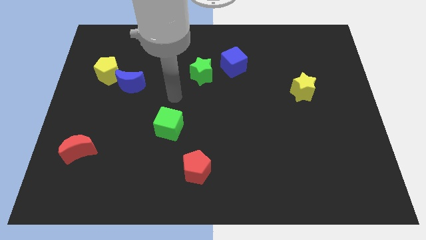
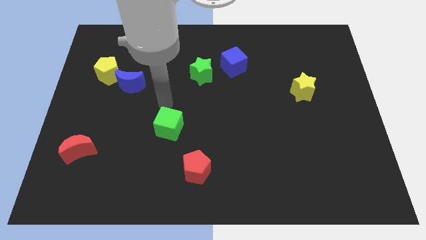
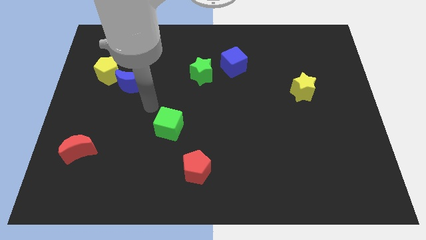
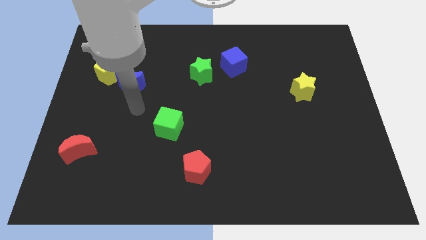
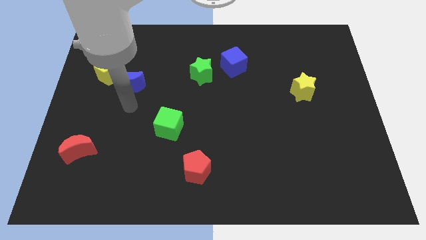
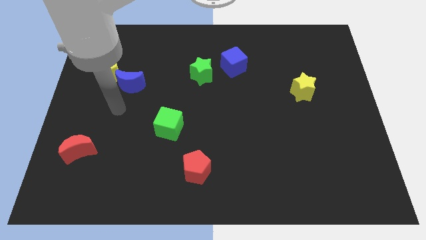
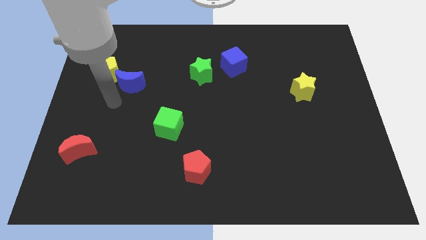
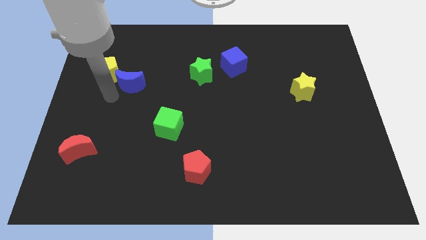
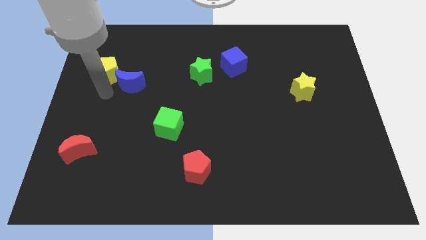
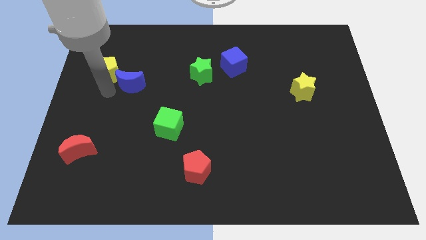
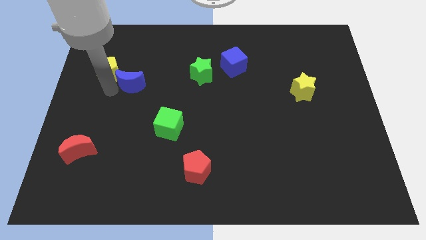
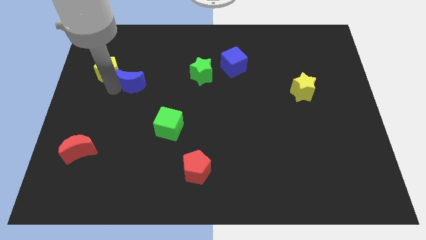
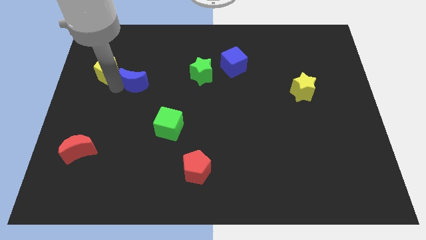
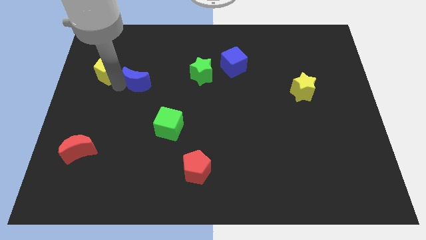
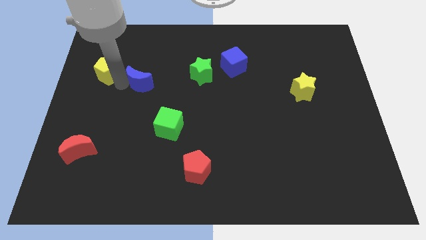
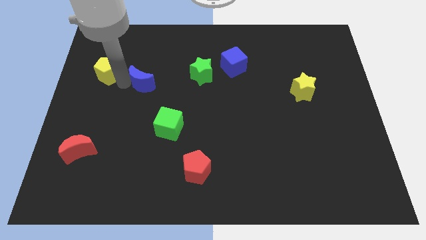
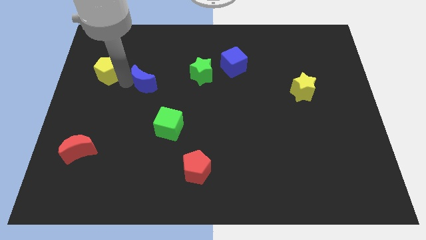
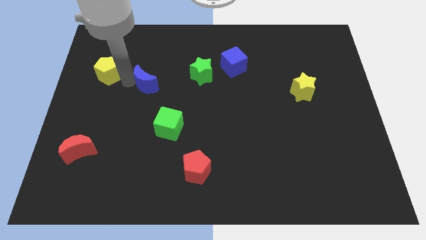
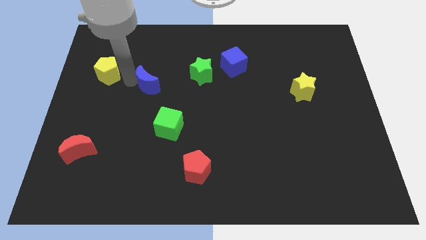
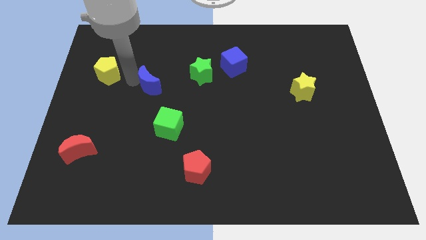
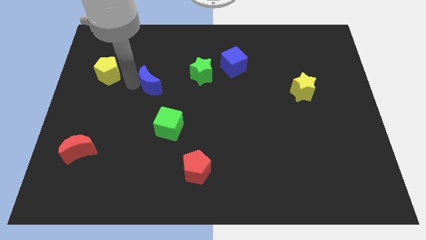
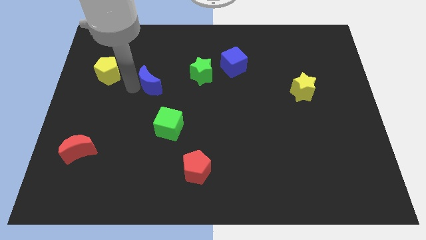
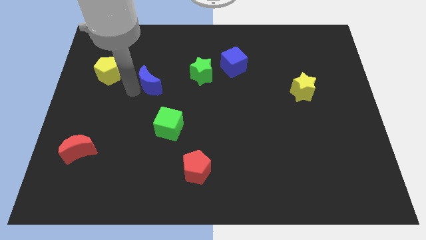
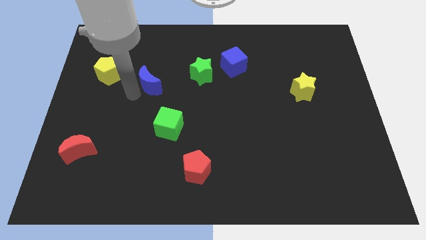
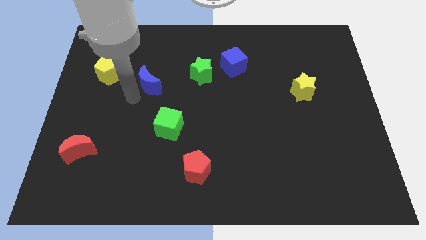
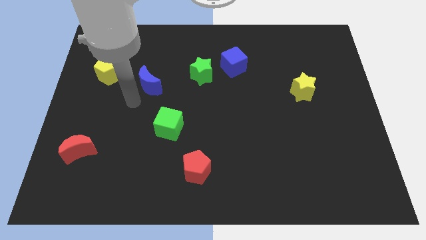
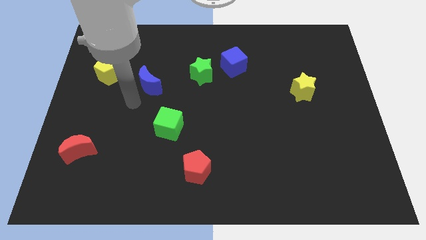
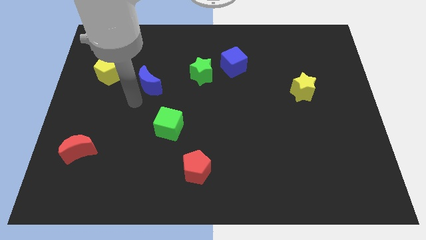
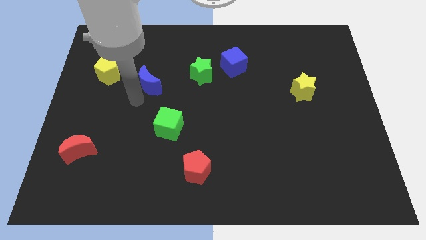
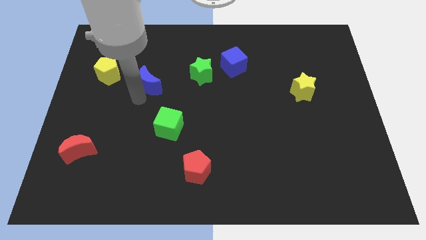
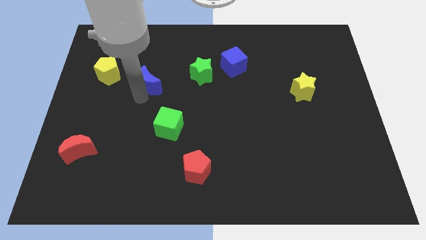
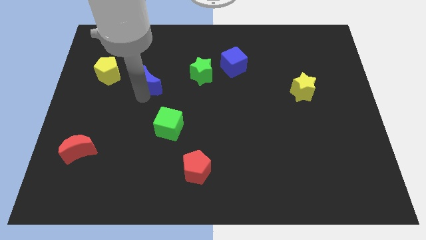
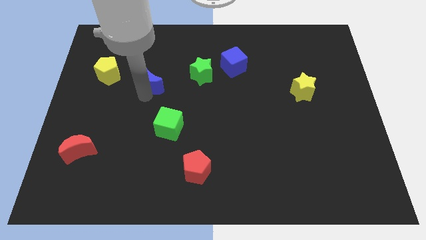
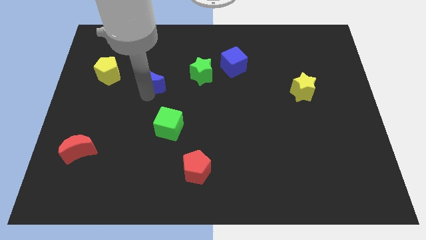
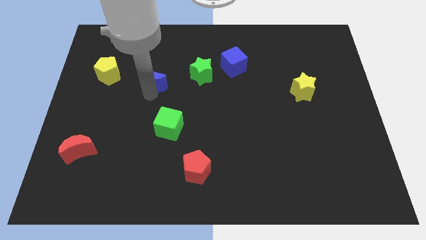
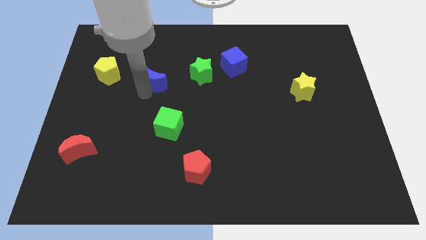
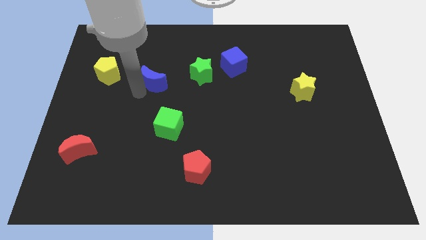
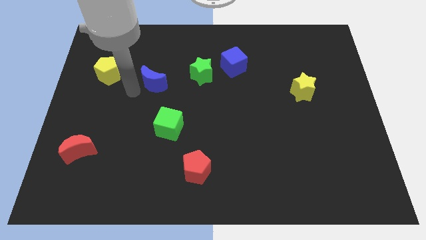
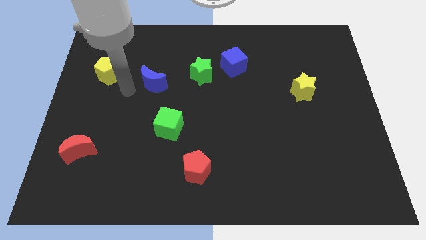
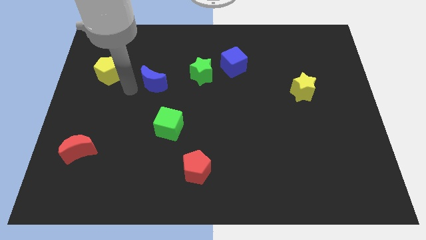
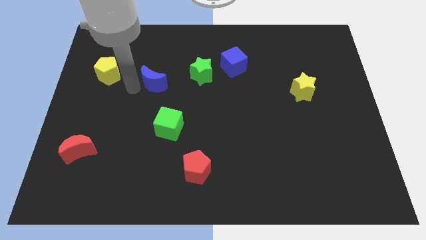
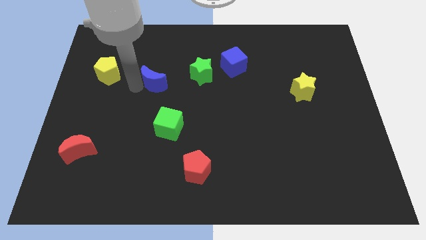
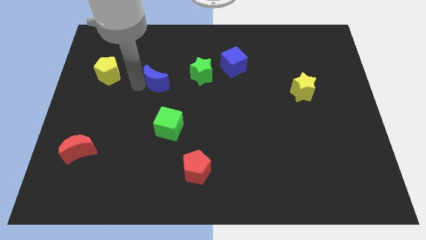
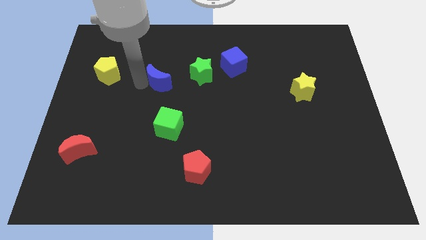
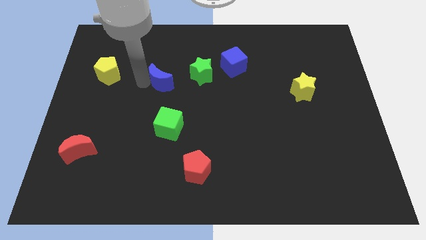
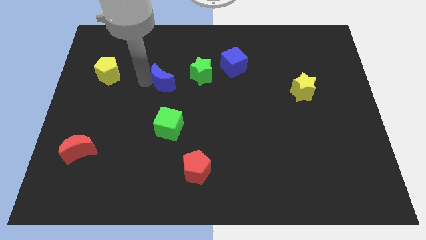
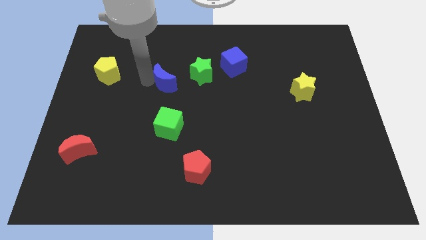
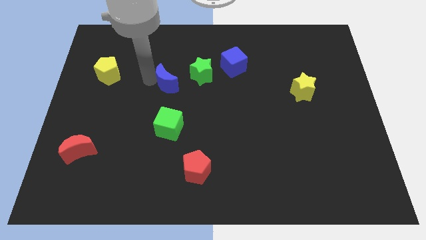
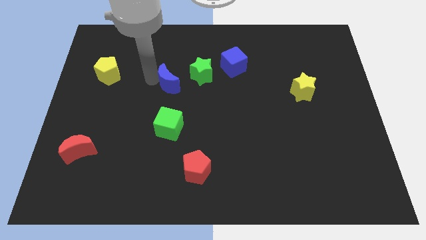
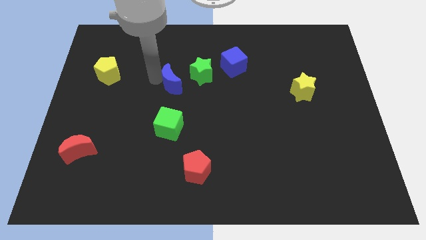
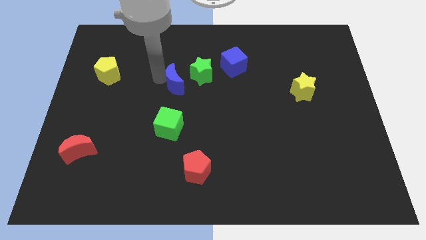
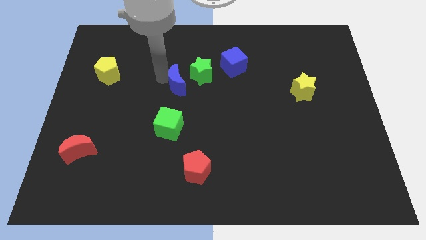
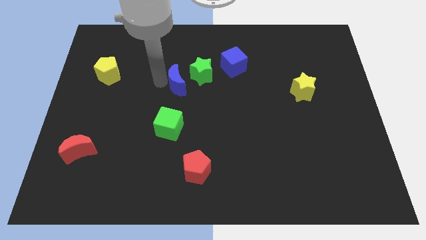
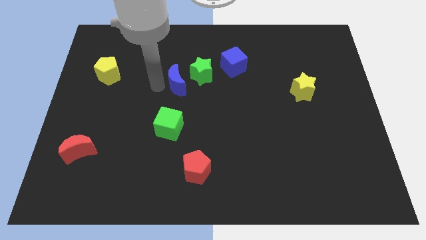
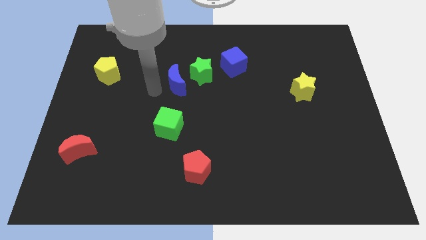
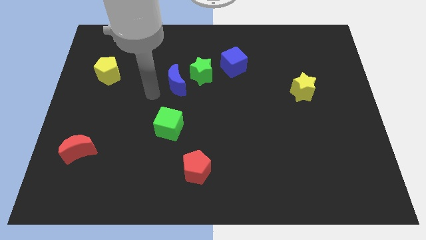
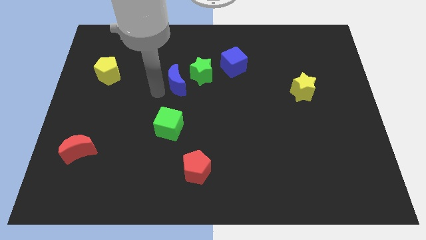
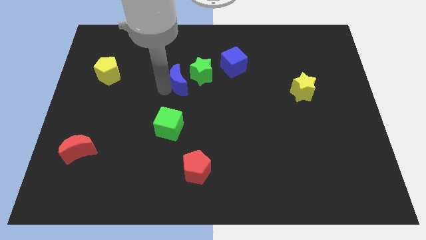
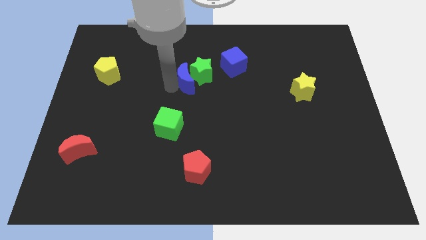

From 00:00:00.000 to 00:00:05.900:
move the blue moon next to the green star
